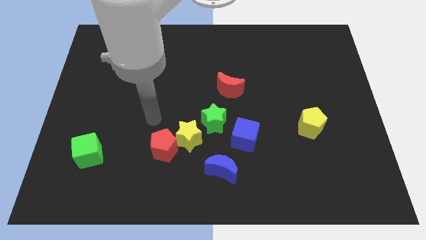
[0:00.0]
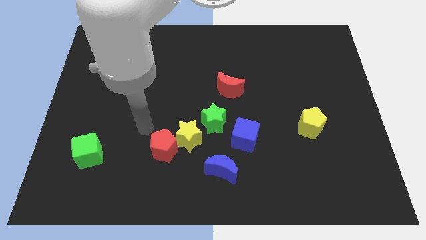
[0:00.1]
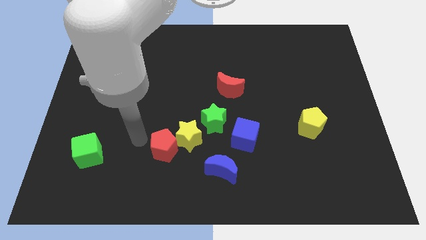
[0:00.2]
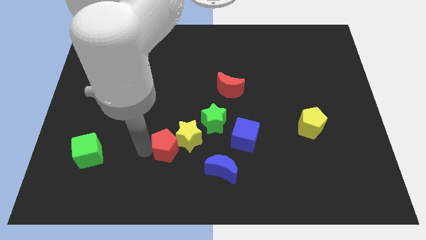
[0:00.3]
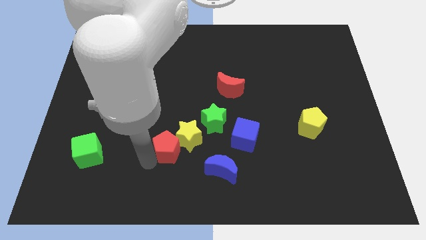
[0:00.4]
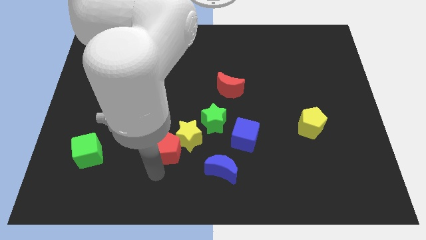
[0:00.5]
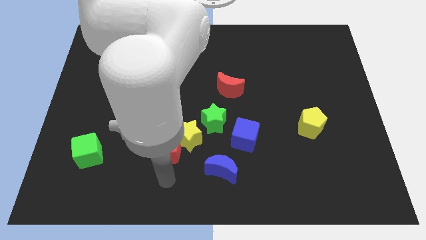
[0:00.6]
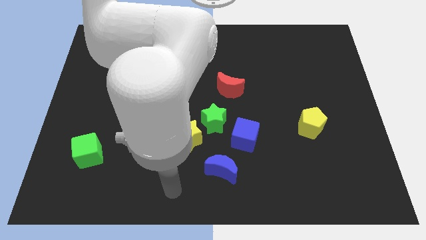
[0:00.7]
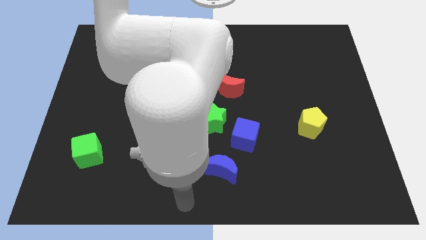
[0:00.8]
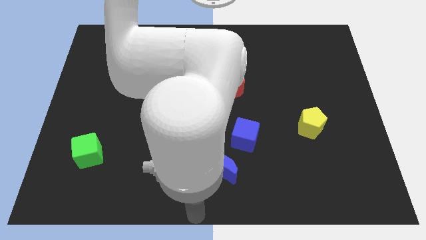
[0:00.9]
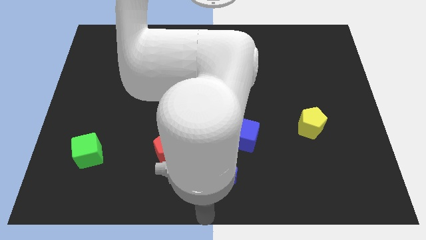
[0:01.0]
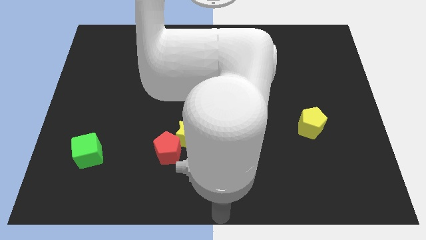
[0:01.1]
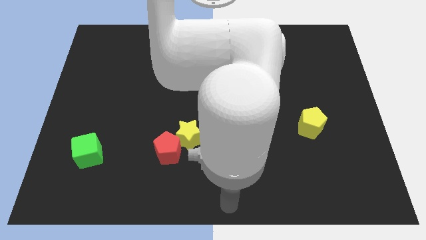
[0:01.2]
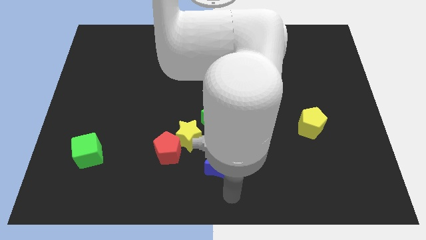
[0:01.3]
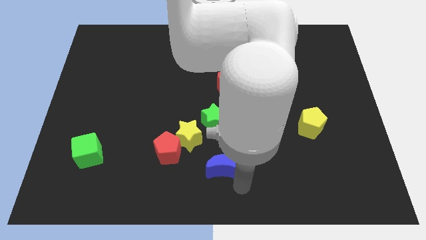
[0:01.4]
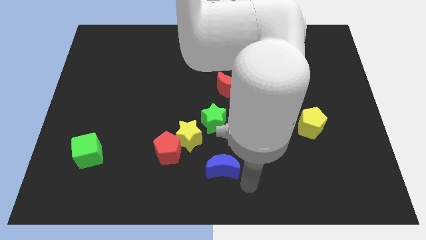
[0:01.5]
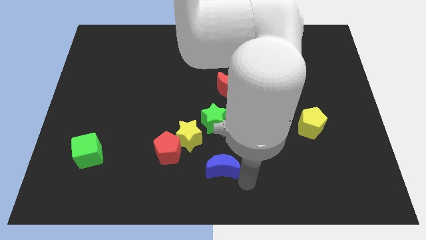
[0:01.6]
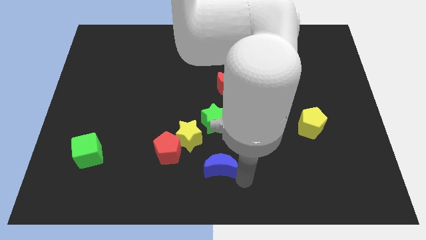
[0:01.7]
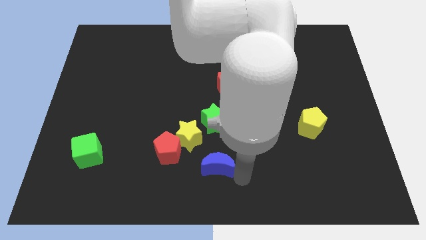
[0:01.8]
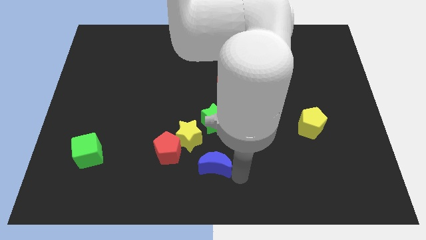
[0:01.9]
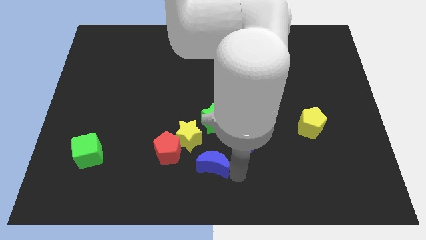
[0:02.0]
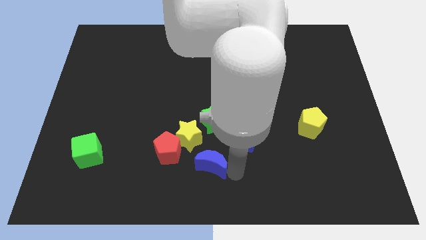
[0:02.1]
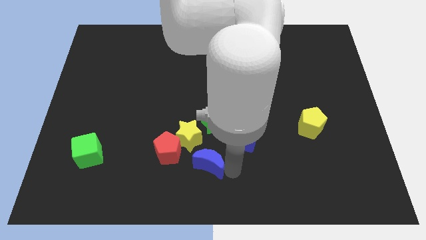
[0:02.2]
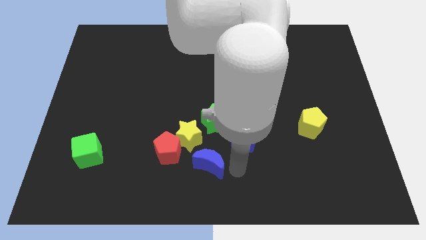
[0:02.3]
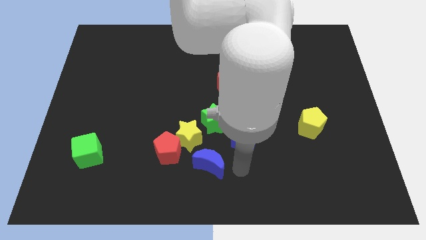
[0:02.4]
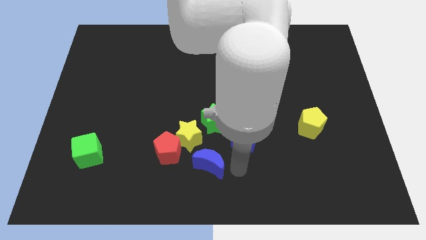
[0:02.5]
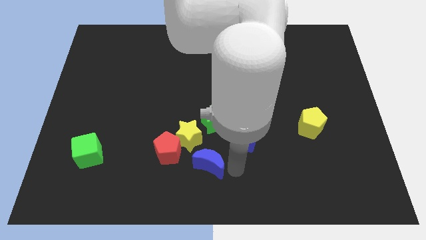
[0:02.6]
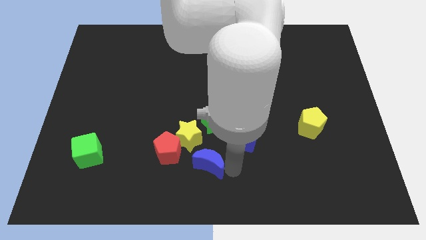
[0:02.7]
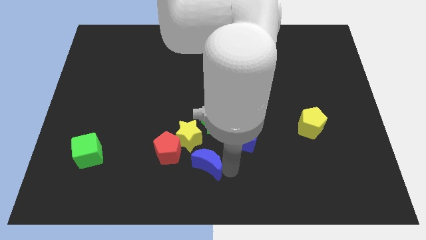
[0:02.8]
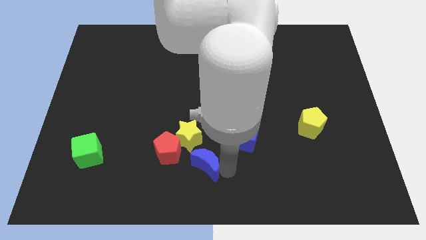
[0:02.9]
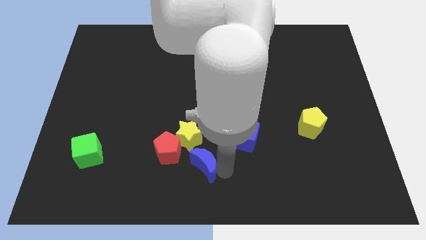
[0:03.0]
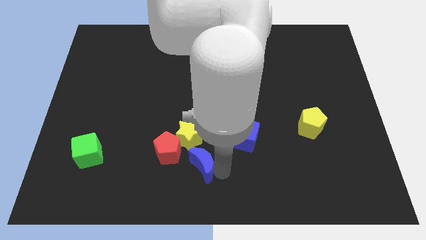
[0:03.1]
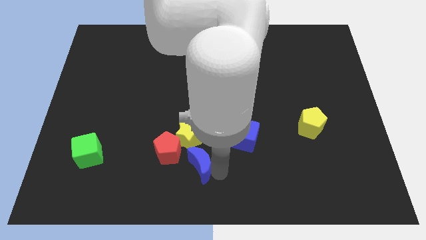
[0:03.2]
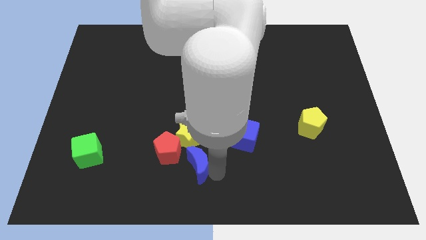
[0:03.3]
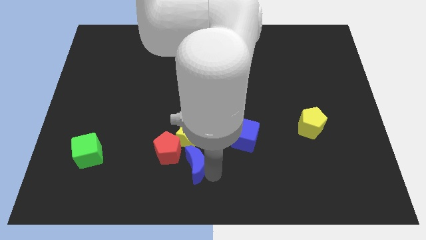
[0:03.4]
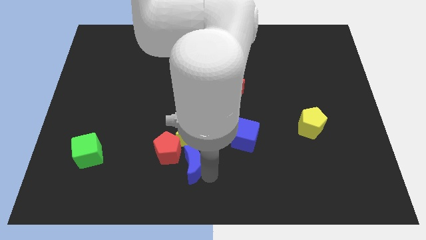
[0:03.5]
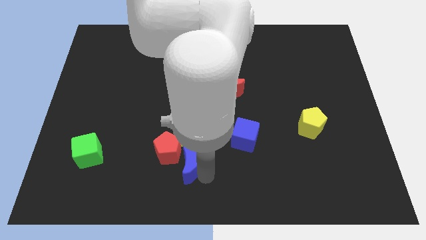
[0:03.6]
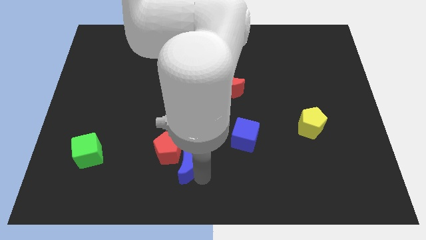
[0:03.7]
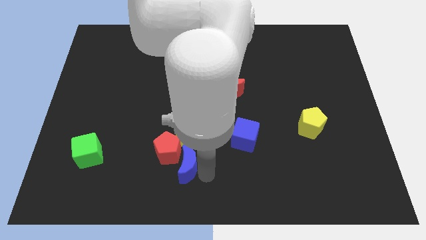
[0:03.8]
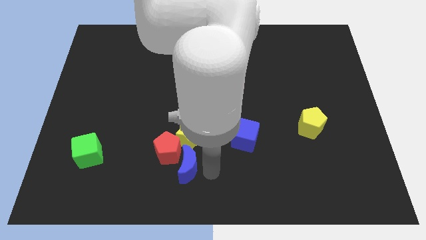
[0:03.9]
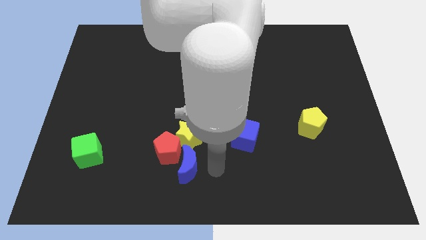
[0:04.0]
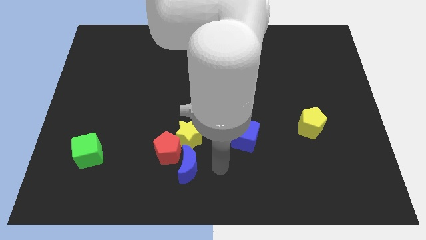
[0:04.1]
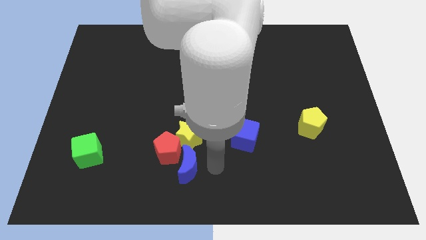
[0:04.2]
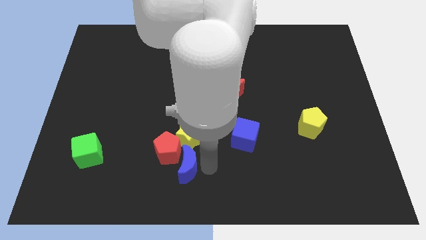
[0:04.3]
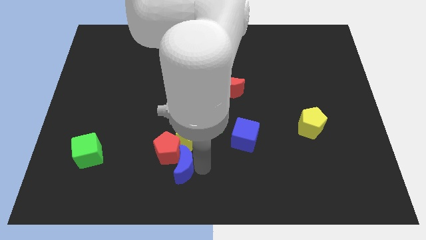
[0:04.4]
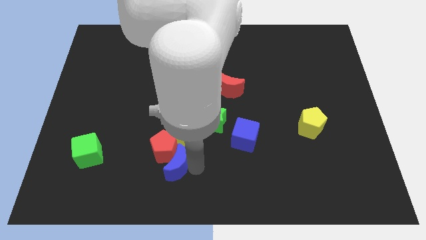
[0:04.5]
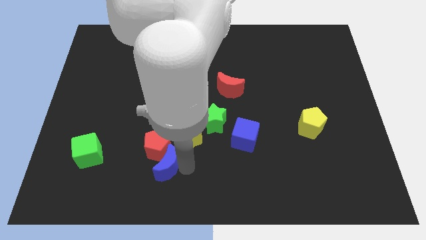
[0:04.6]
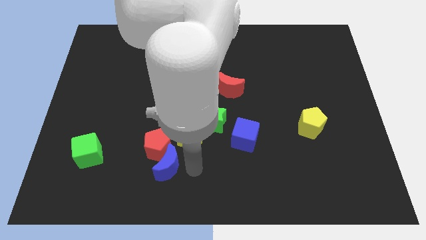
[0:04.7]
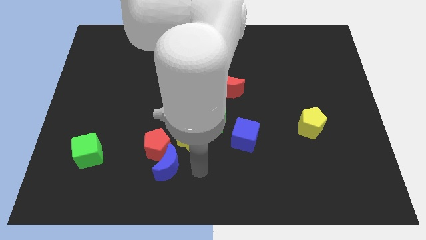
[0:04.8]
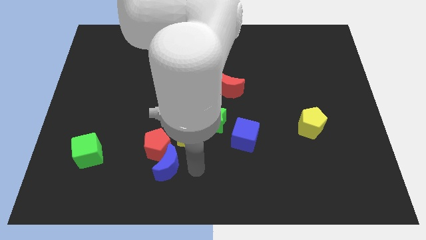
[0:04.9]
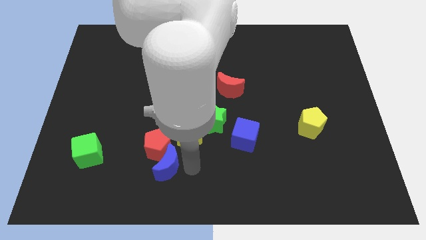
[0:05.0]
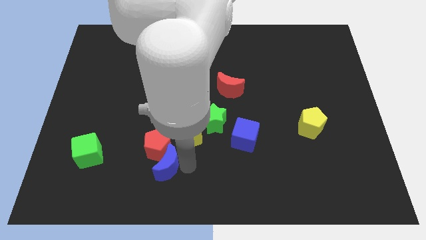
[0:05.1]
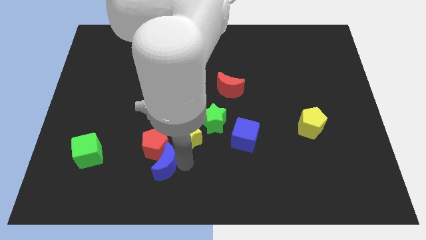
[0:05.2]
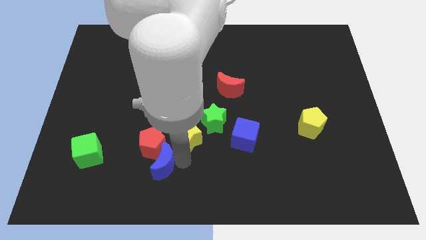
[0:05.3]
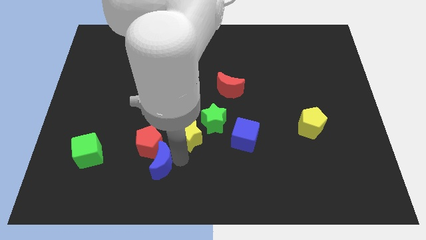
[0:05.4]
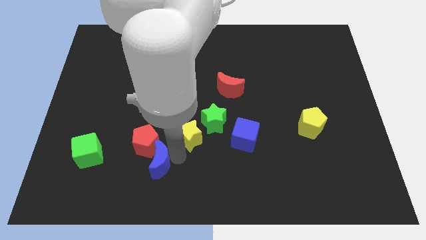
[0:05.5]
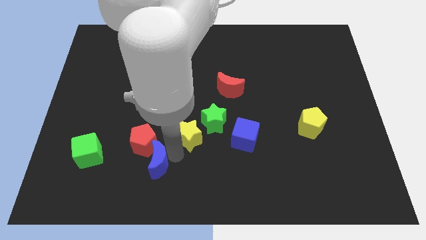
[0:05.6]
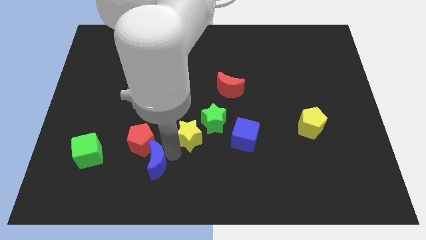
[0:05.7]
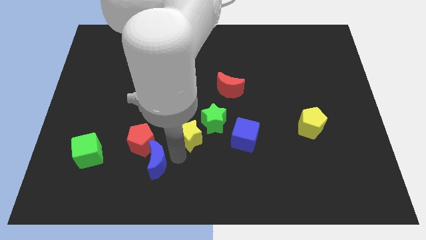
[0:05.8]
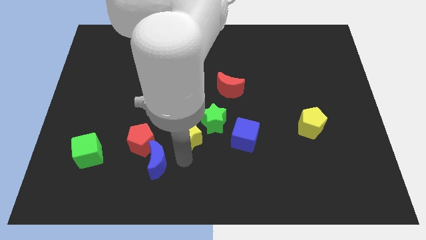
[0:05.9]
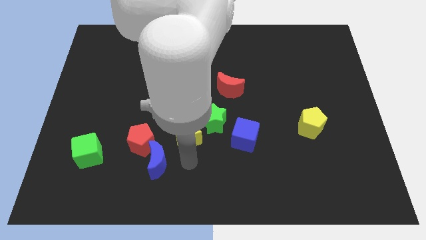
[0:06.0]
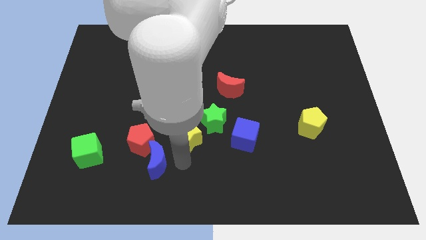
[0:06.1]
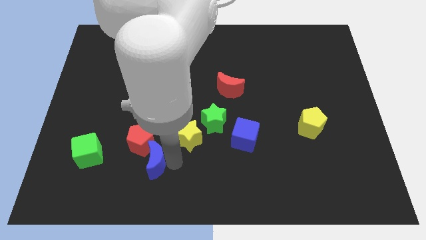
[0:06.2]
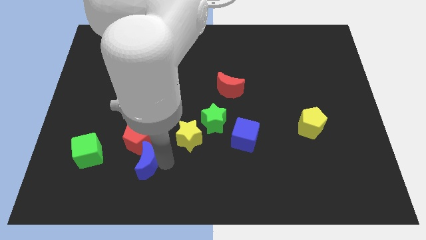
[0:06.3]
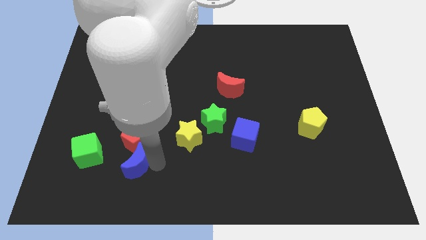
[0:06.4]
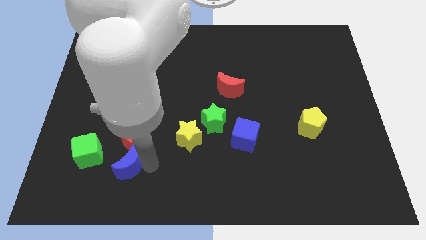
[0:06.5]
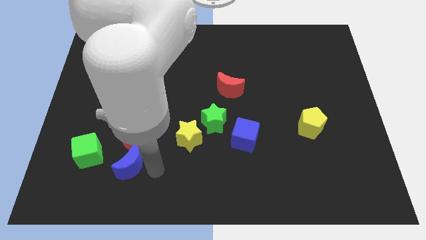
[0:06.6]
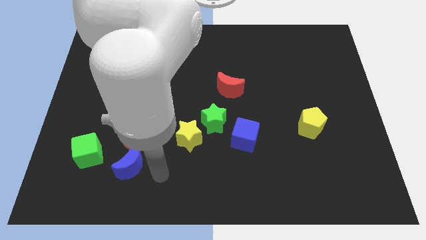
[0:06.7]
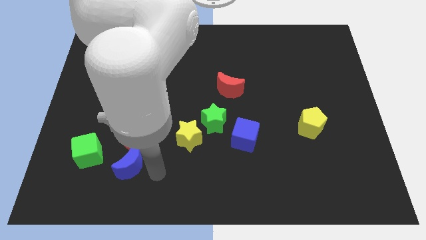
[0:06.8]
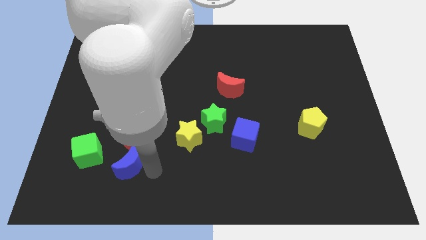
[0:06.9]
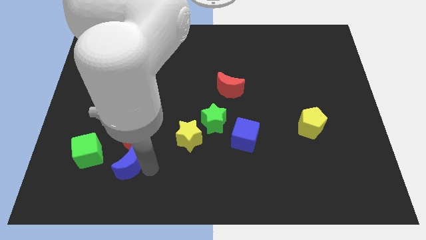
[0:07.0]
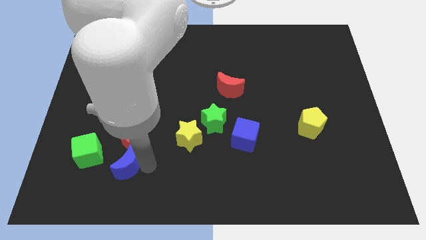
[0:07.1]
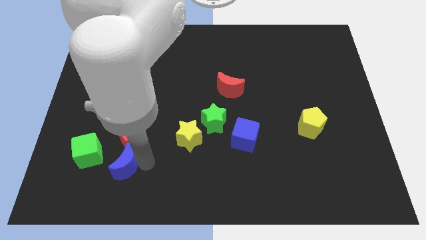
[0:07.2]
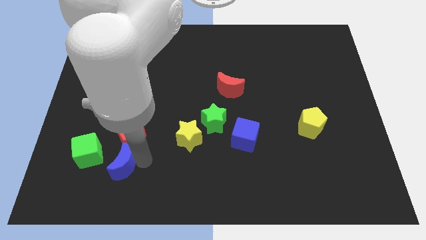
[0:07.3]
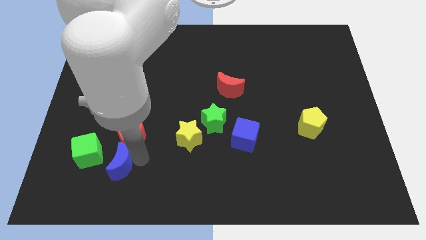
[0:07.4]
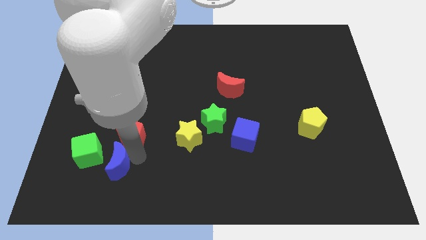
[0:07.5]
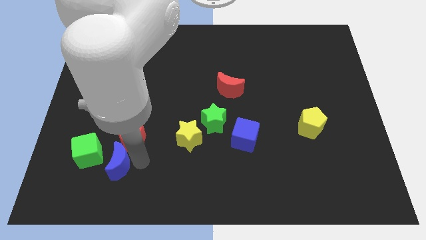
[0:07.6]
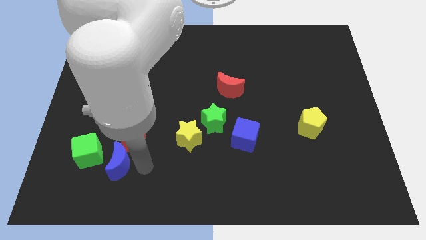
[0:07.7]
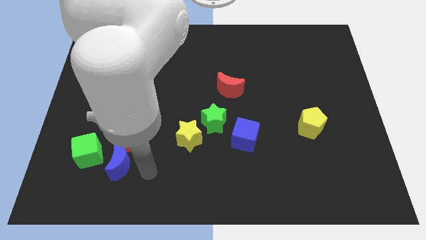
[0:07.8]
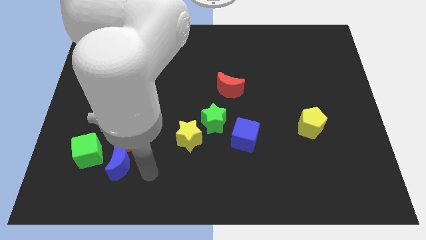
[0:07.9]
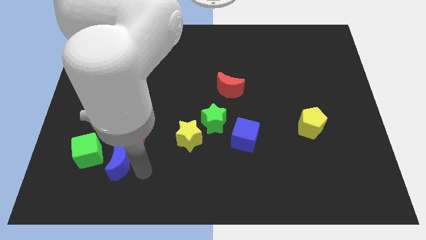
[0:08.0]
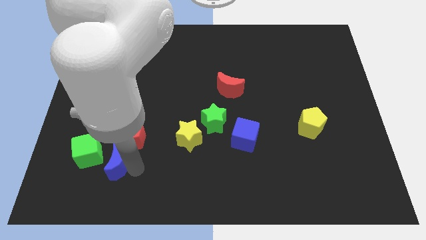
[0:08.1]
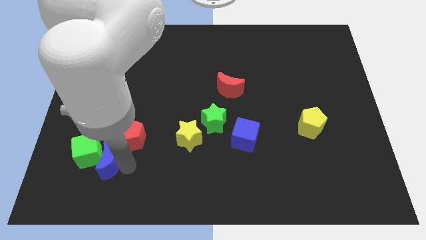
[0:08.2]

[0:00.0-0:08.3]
put the blue moon towards the green cube
